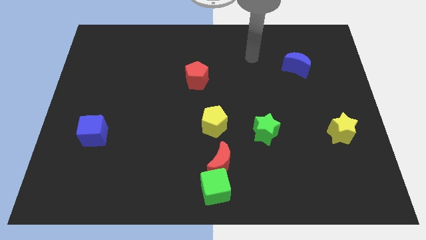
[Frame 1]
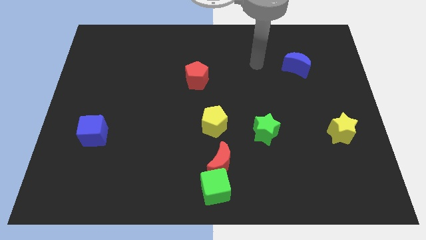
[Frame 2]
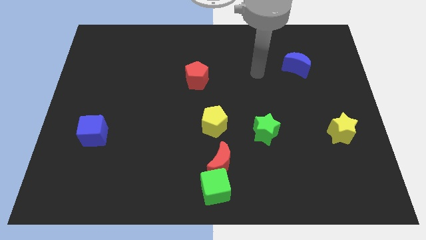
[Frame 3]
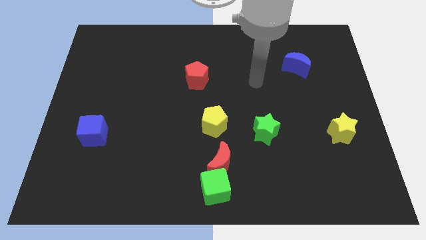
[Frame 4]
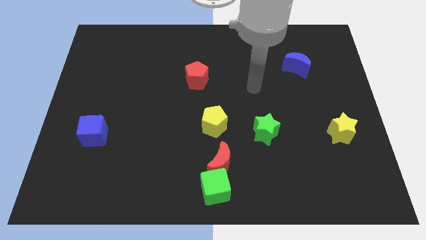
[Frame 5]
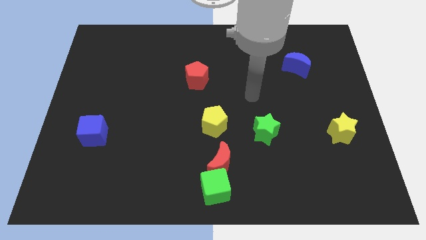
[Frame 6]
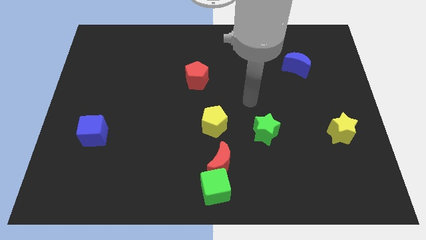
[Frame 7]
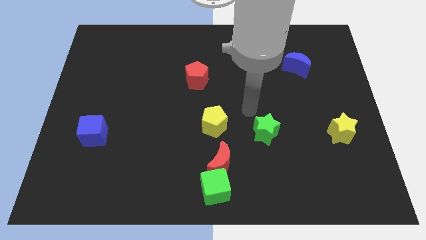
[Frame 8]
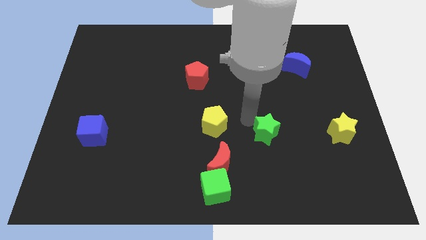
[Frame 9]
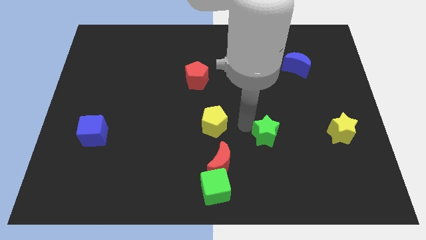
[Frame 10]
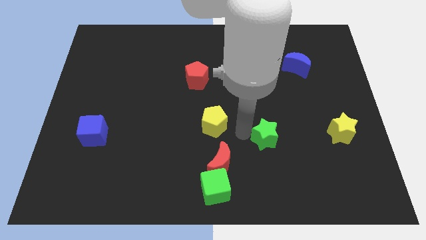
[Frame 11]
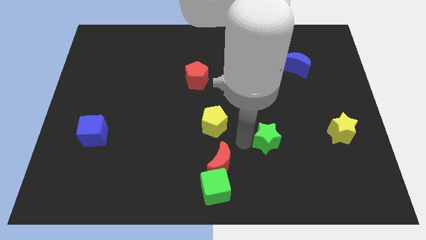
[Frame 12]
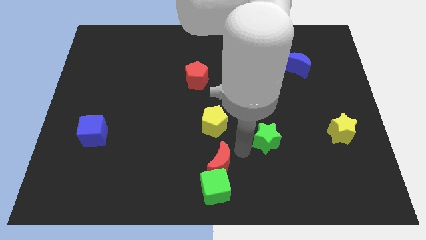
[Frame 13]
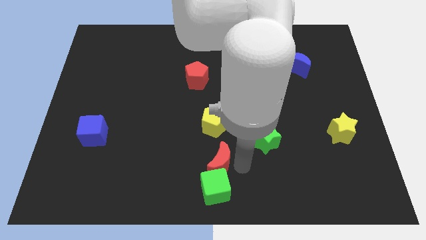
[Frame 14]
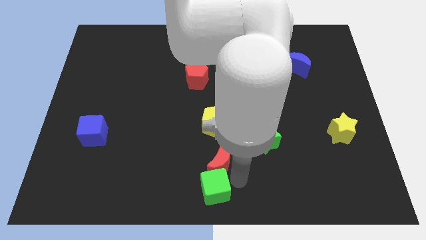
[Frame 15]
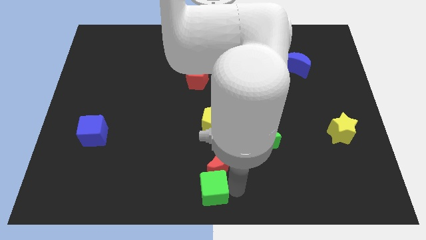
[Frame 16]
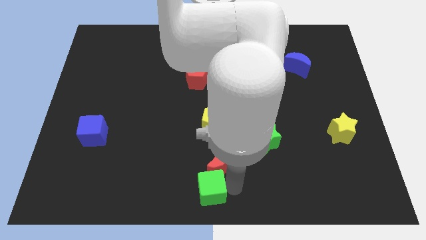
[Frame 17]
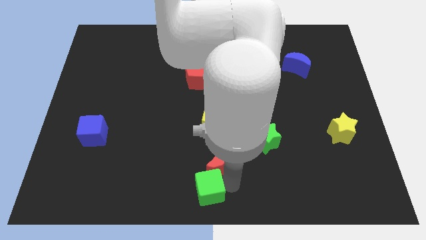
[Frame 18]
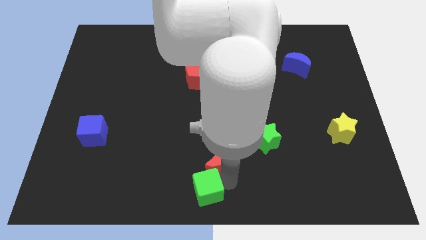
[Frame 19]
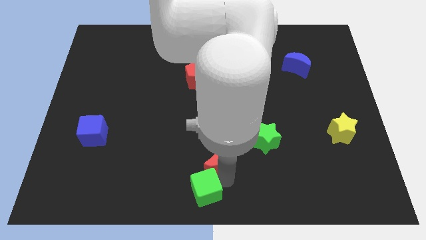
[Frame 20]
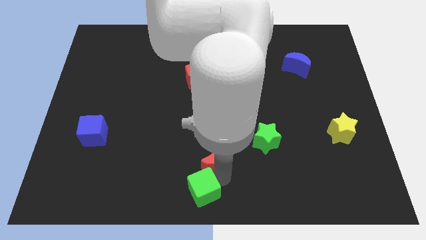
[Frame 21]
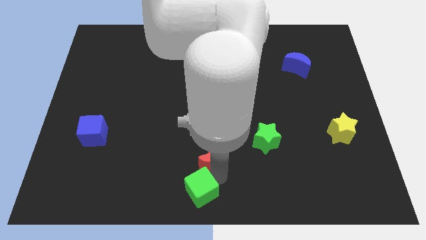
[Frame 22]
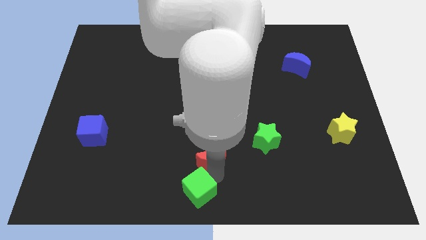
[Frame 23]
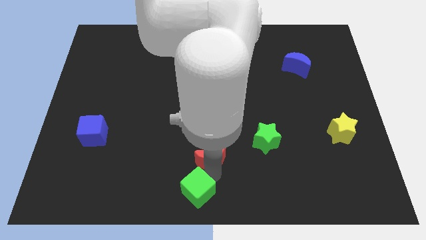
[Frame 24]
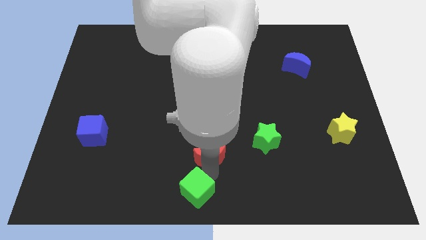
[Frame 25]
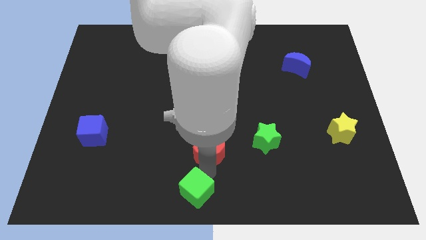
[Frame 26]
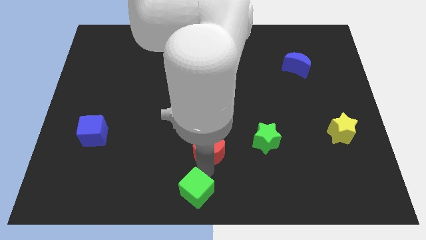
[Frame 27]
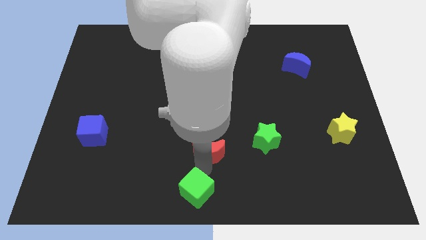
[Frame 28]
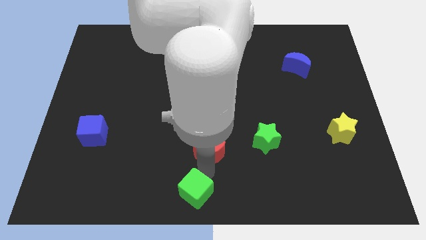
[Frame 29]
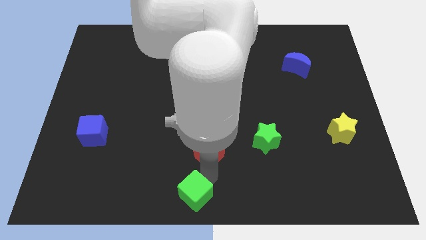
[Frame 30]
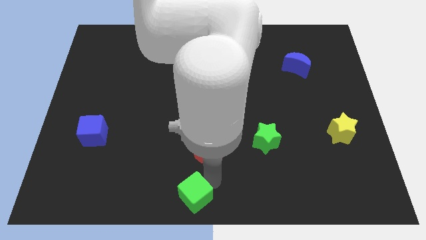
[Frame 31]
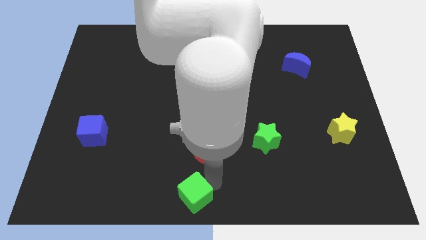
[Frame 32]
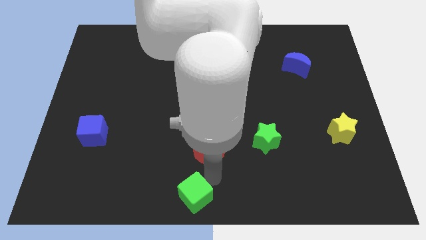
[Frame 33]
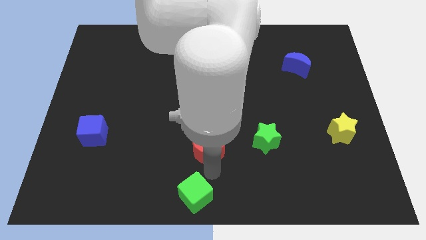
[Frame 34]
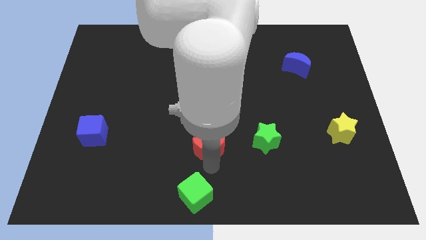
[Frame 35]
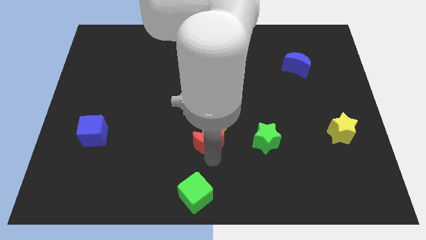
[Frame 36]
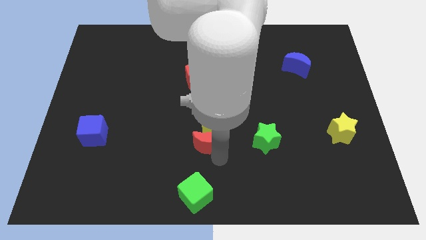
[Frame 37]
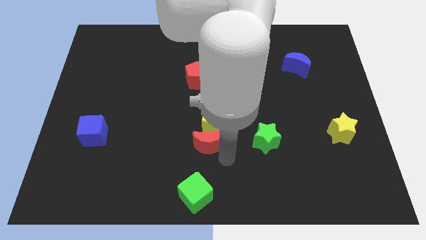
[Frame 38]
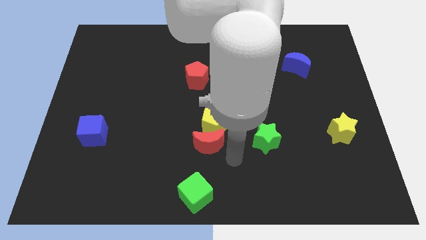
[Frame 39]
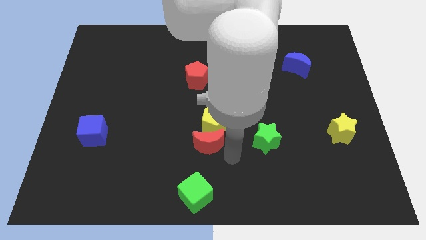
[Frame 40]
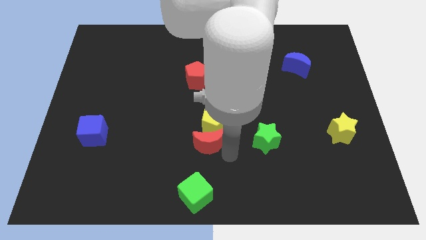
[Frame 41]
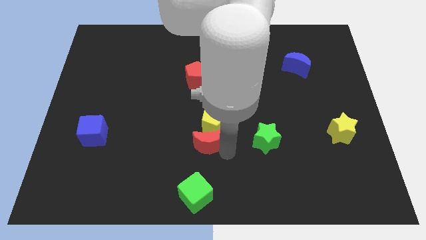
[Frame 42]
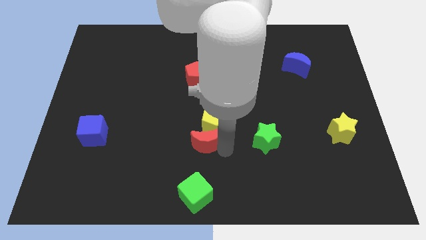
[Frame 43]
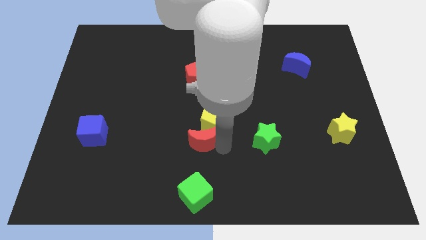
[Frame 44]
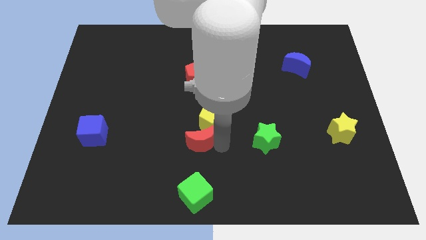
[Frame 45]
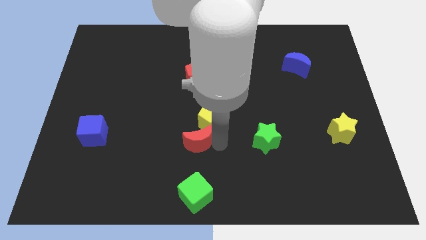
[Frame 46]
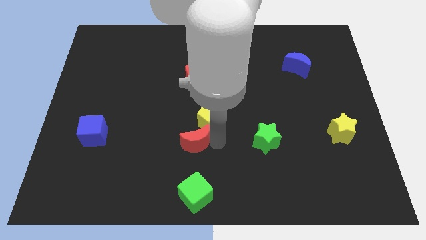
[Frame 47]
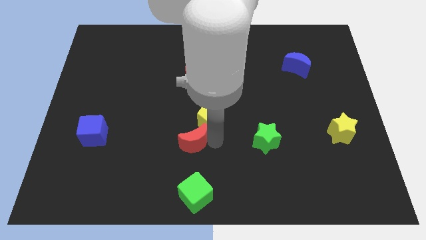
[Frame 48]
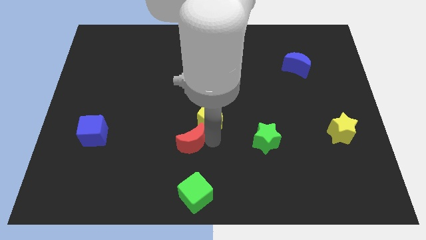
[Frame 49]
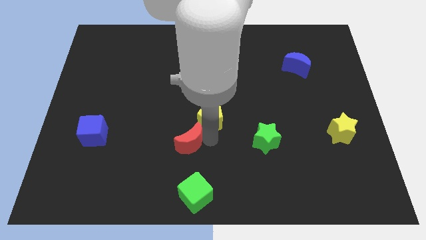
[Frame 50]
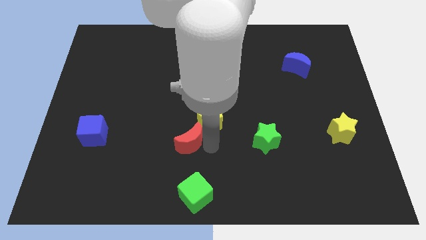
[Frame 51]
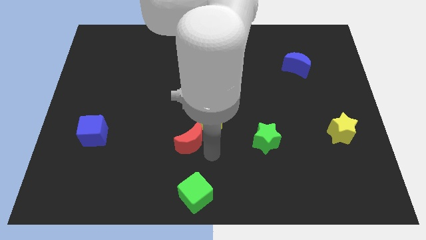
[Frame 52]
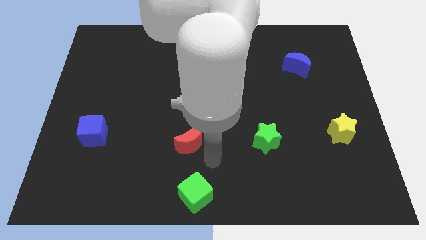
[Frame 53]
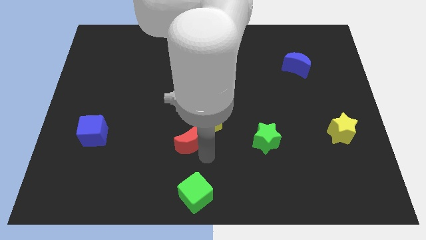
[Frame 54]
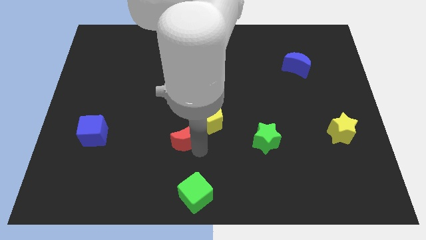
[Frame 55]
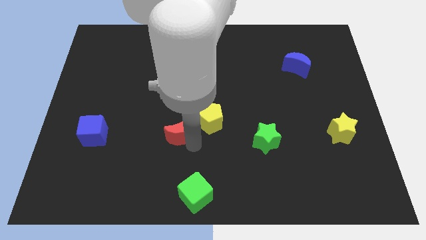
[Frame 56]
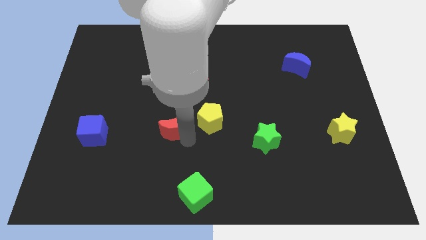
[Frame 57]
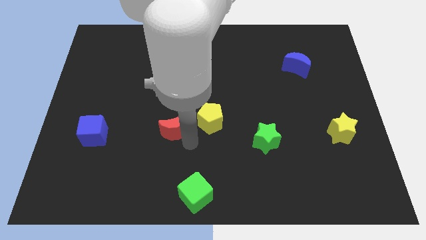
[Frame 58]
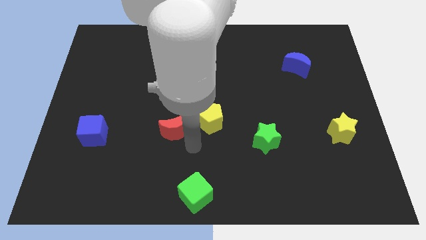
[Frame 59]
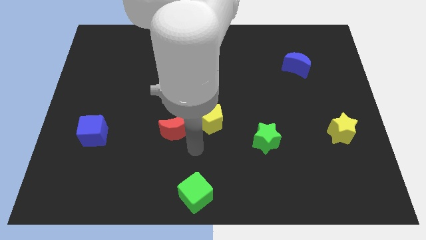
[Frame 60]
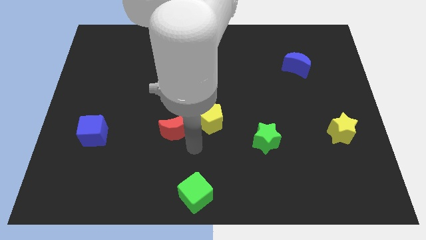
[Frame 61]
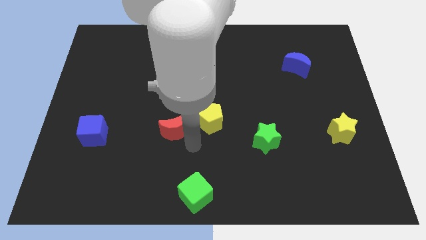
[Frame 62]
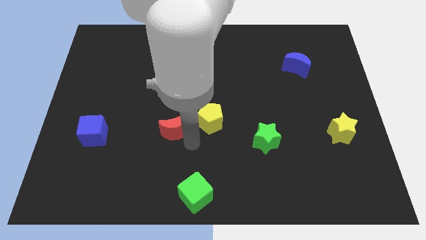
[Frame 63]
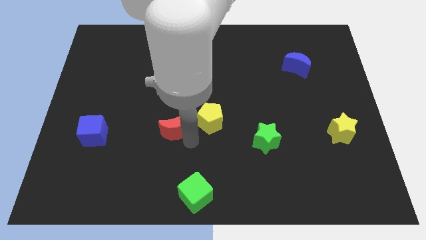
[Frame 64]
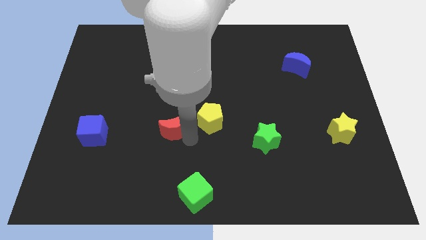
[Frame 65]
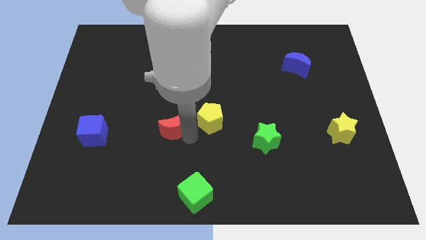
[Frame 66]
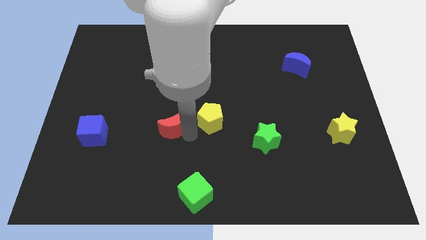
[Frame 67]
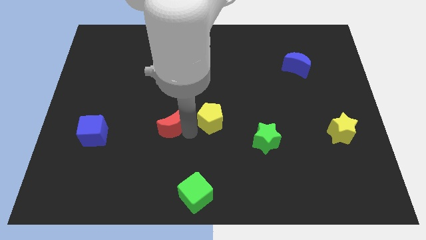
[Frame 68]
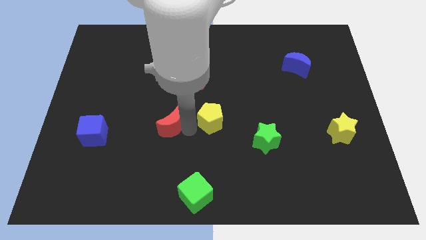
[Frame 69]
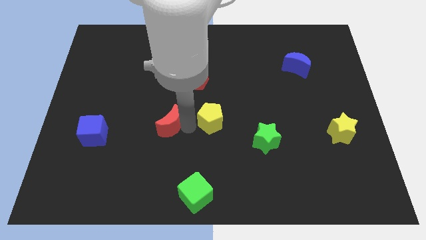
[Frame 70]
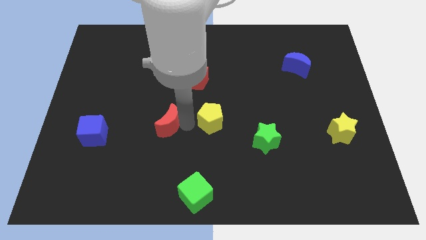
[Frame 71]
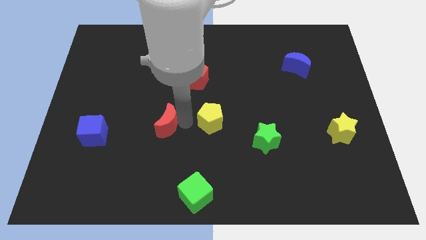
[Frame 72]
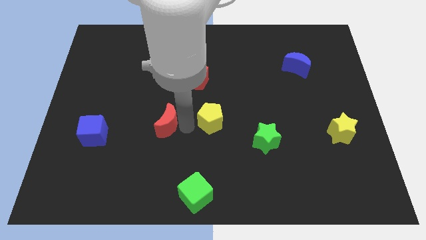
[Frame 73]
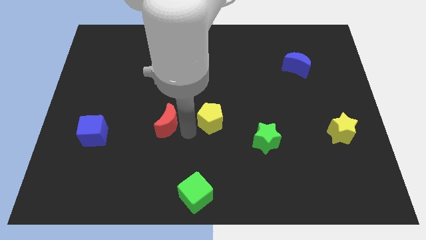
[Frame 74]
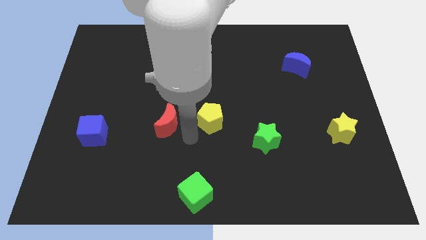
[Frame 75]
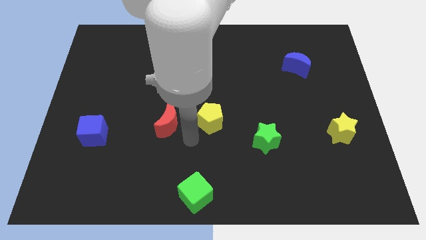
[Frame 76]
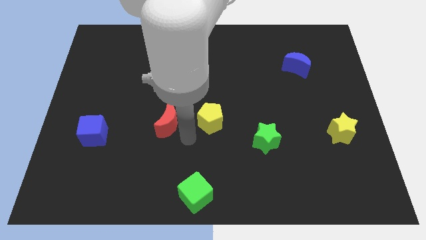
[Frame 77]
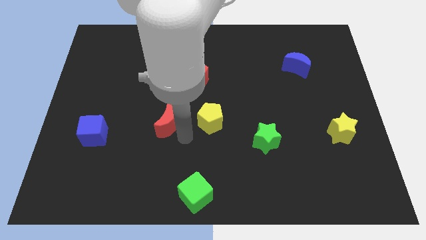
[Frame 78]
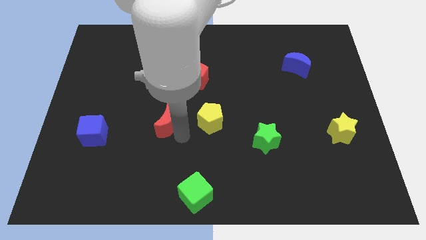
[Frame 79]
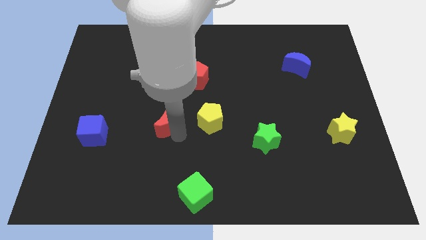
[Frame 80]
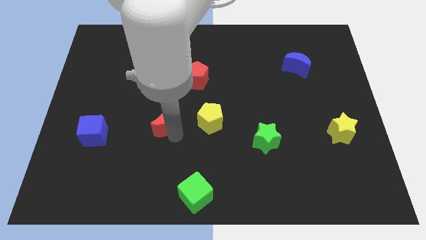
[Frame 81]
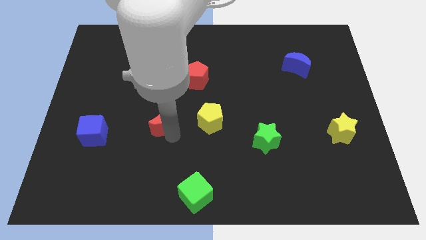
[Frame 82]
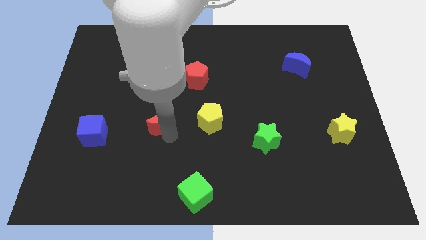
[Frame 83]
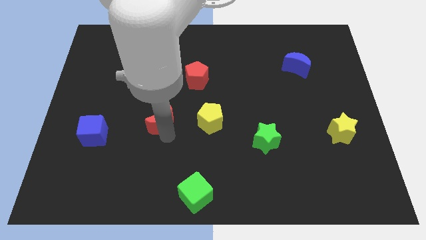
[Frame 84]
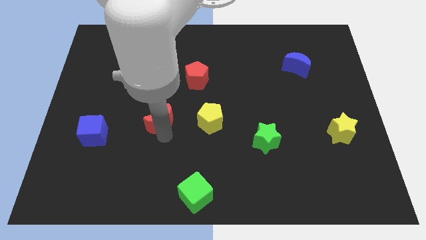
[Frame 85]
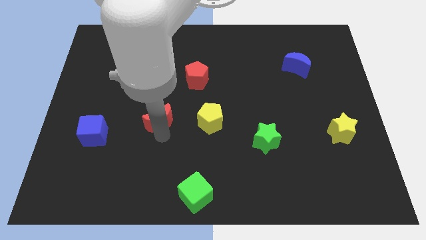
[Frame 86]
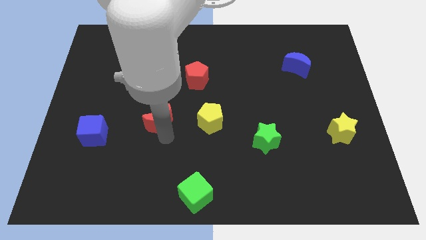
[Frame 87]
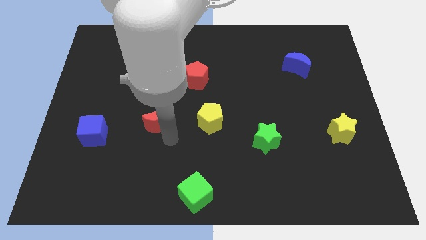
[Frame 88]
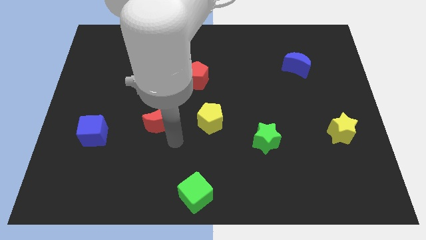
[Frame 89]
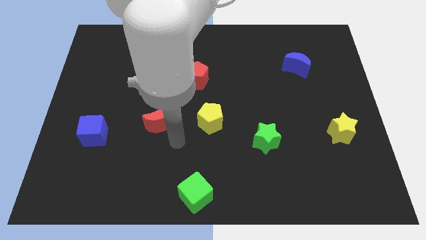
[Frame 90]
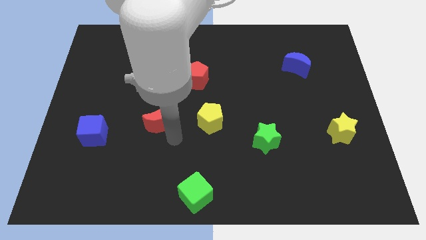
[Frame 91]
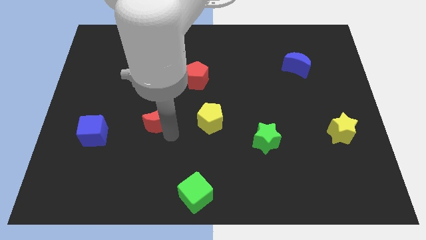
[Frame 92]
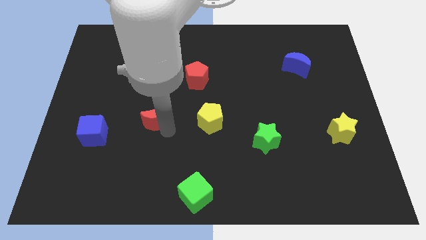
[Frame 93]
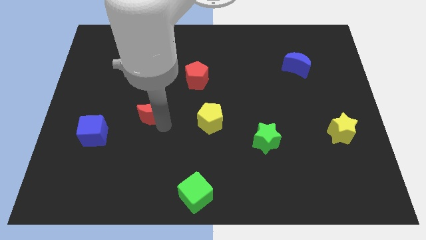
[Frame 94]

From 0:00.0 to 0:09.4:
move the red moon upwards and to the left
